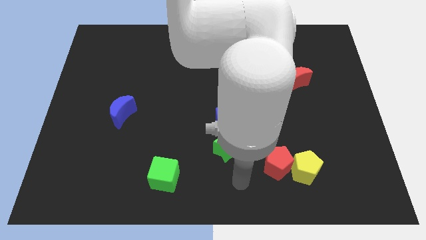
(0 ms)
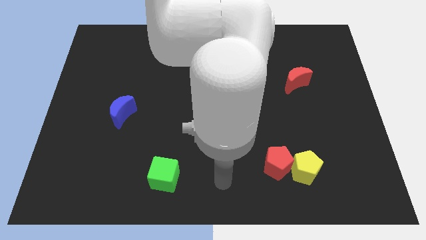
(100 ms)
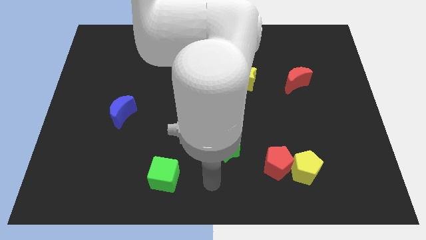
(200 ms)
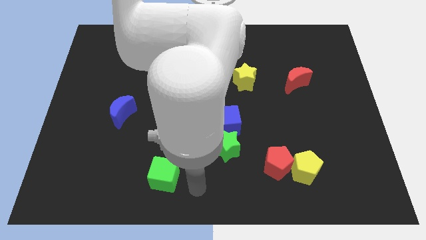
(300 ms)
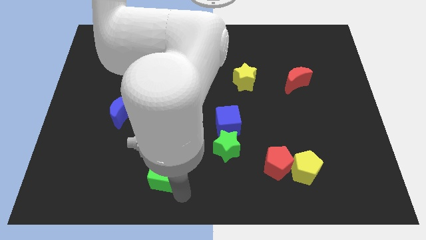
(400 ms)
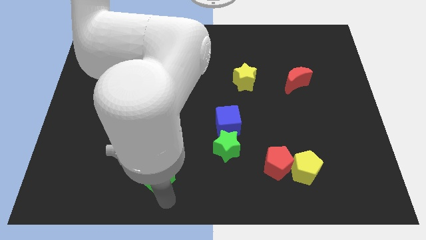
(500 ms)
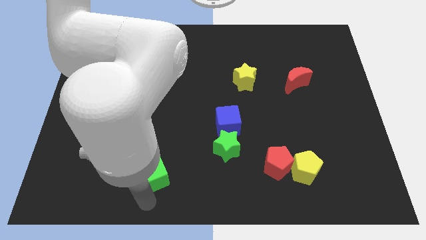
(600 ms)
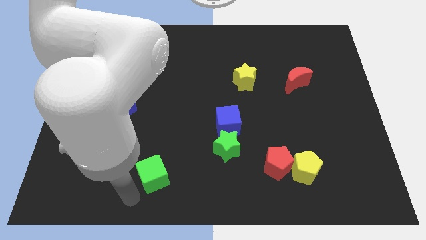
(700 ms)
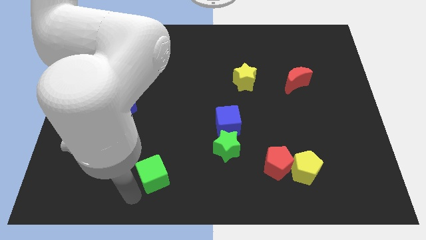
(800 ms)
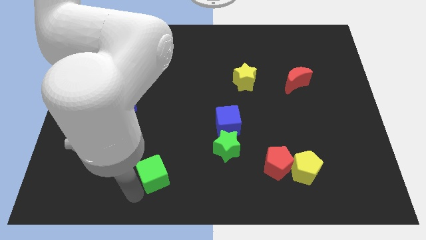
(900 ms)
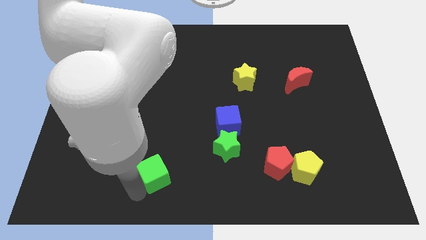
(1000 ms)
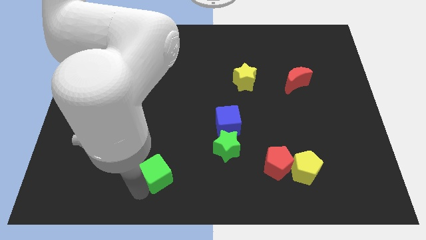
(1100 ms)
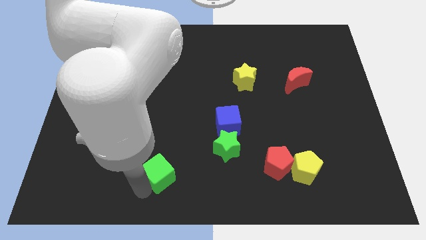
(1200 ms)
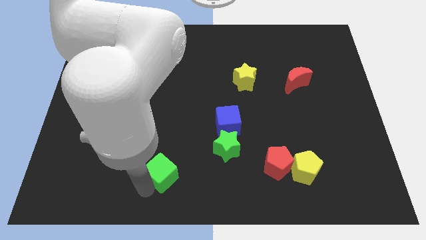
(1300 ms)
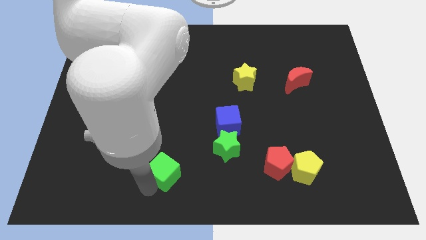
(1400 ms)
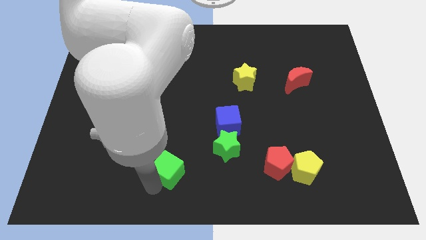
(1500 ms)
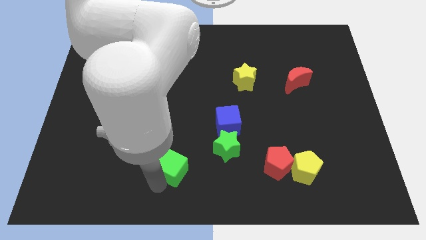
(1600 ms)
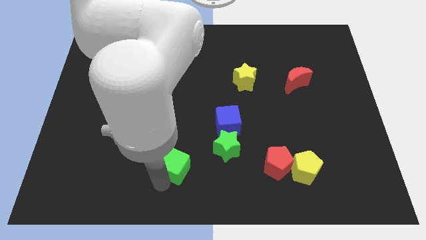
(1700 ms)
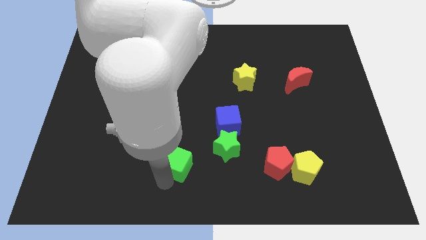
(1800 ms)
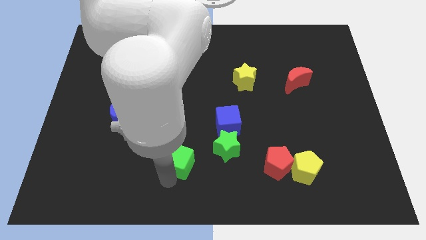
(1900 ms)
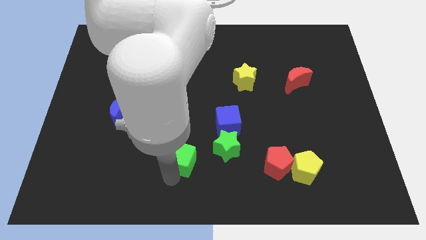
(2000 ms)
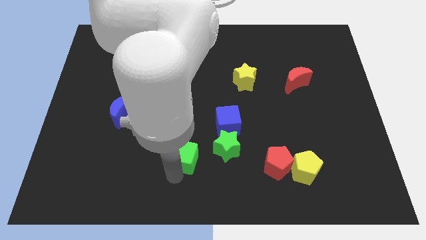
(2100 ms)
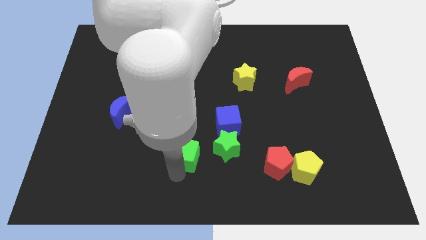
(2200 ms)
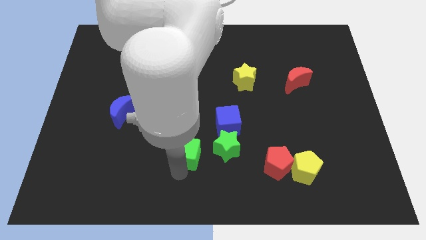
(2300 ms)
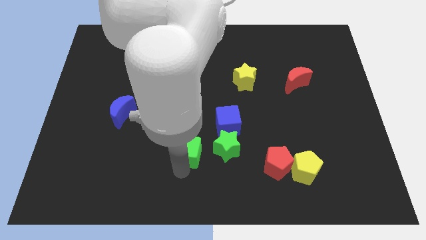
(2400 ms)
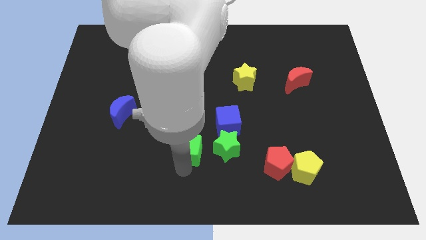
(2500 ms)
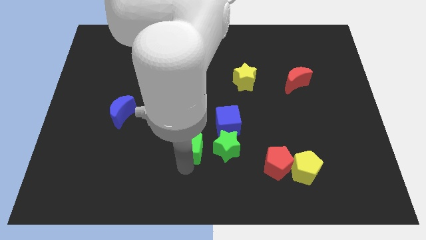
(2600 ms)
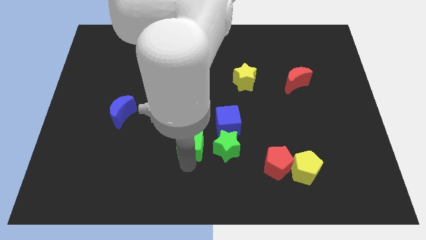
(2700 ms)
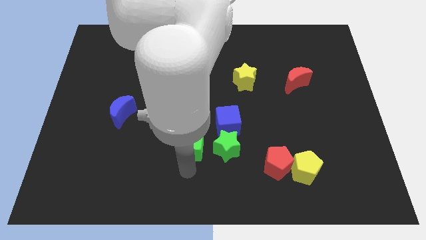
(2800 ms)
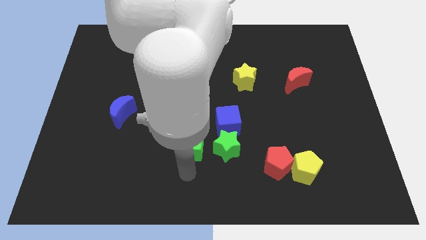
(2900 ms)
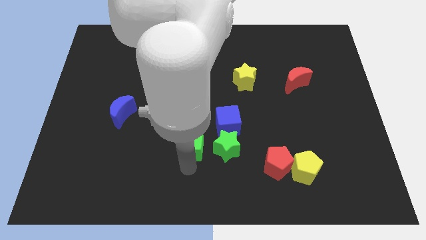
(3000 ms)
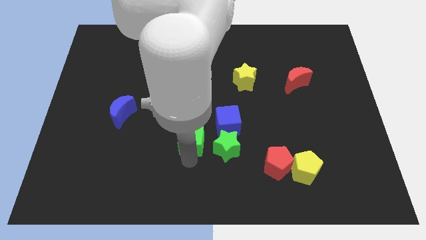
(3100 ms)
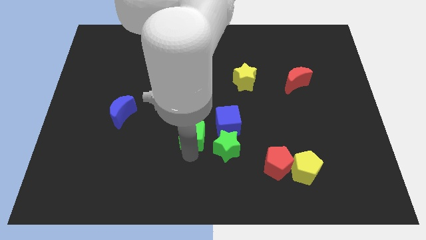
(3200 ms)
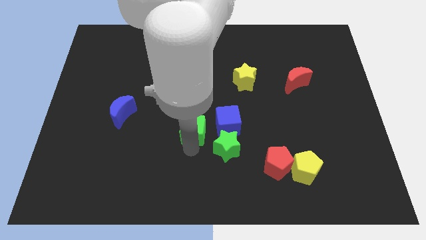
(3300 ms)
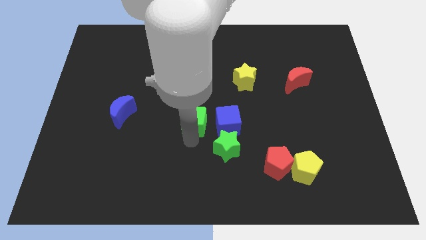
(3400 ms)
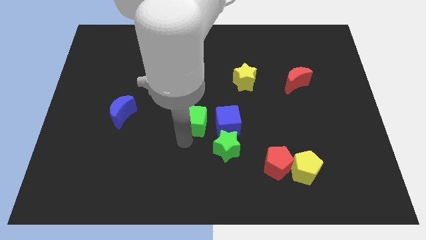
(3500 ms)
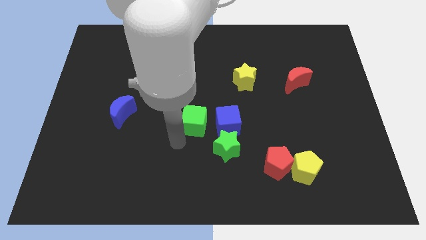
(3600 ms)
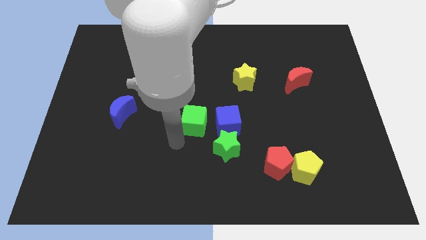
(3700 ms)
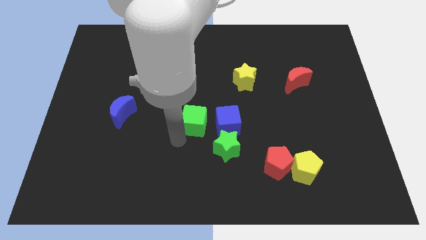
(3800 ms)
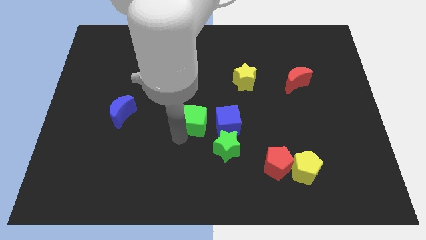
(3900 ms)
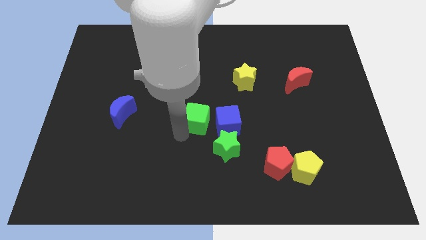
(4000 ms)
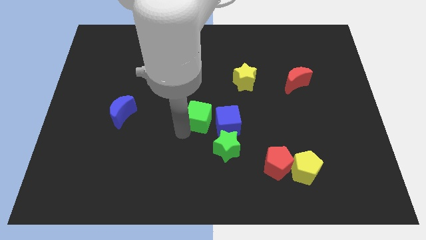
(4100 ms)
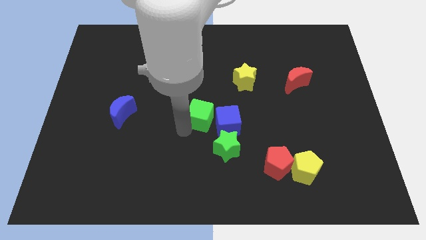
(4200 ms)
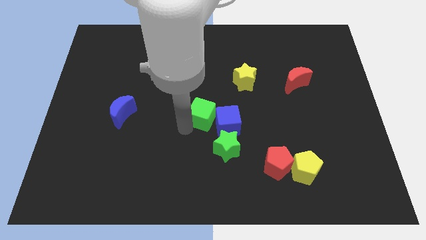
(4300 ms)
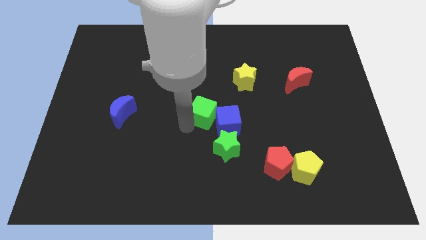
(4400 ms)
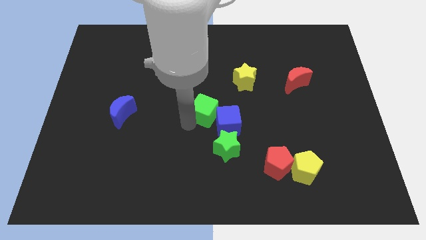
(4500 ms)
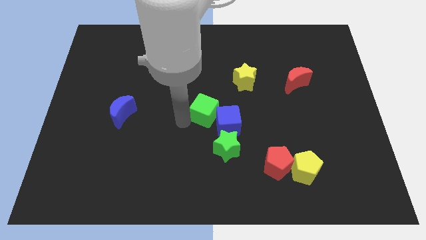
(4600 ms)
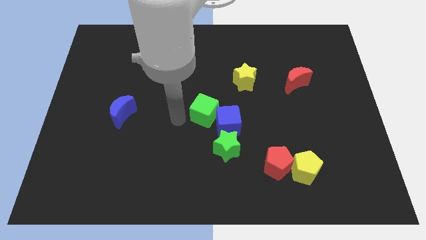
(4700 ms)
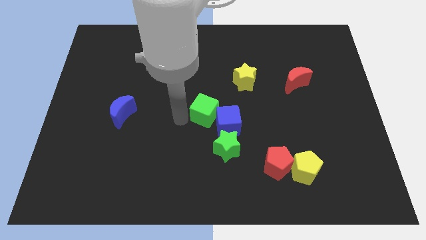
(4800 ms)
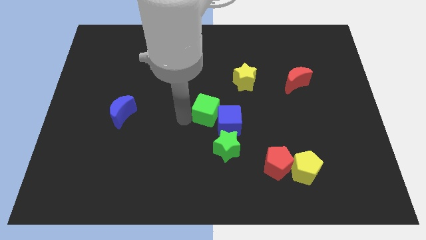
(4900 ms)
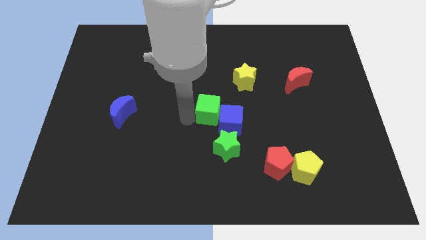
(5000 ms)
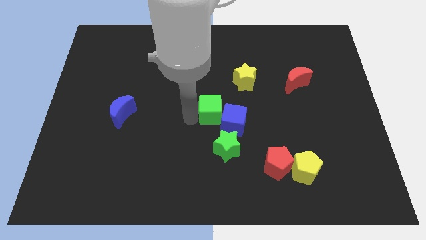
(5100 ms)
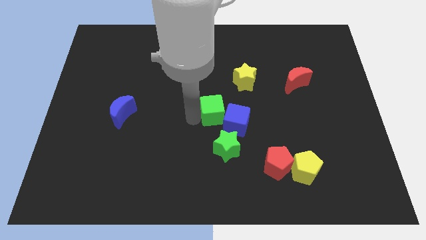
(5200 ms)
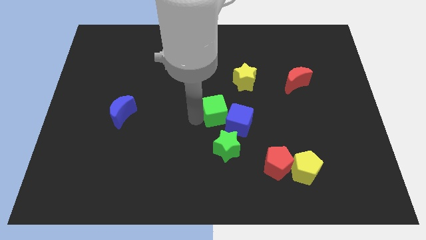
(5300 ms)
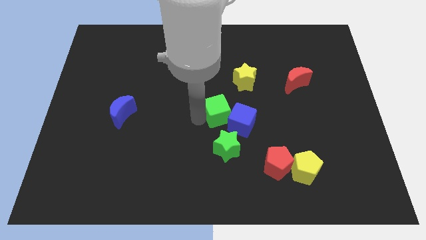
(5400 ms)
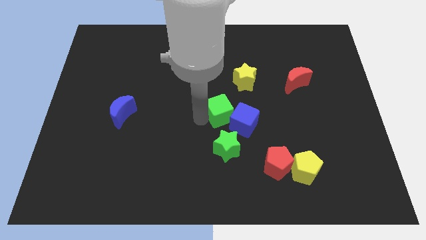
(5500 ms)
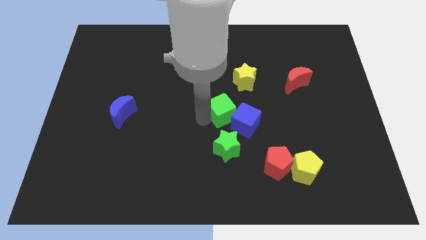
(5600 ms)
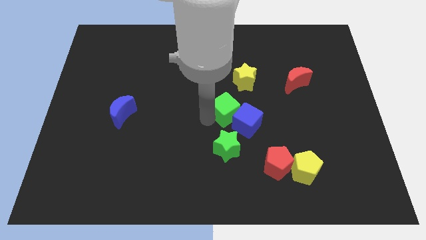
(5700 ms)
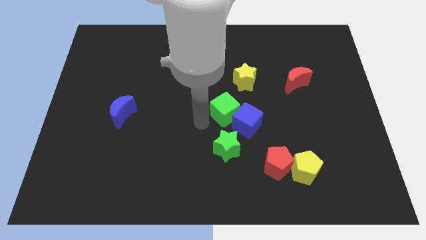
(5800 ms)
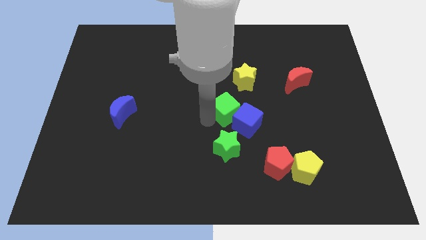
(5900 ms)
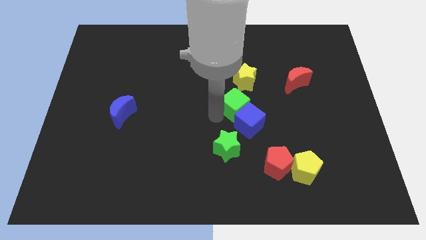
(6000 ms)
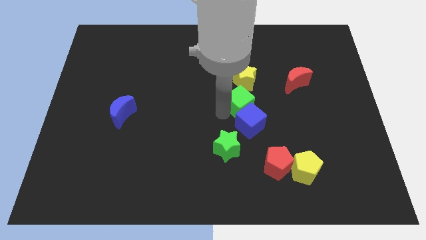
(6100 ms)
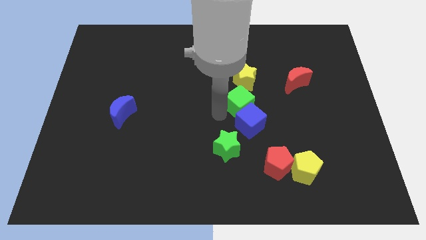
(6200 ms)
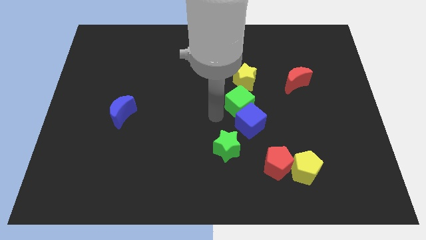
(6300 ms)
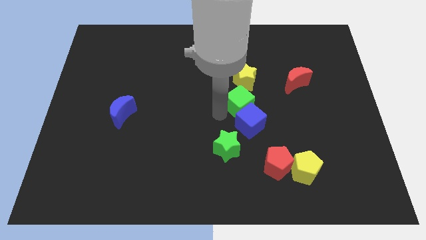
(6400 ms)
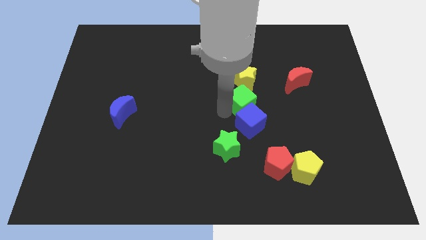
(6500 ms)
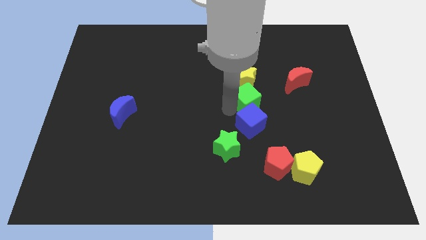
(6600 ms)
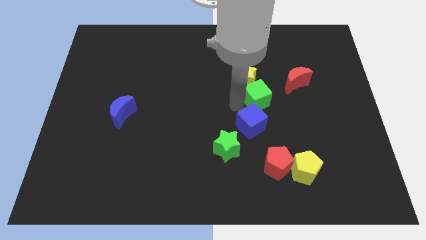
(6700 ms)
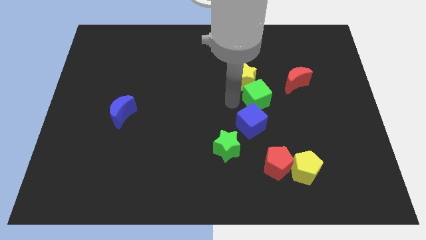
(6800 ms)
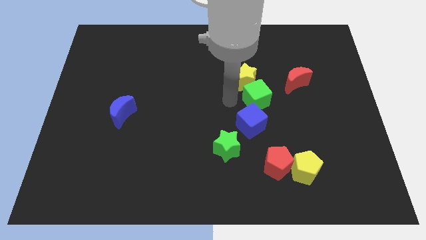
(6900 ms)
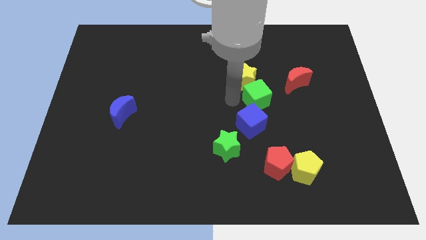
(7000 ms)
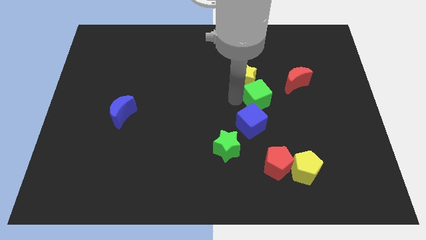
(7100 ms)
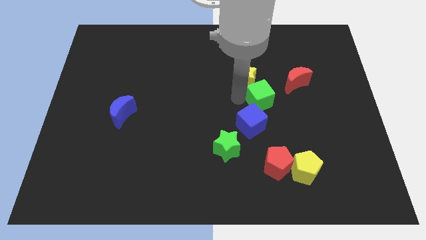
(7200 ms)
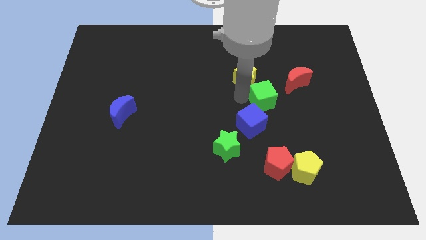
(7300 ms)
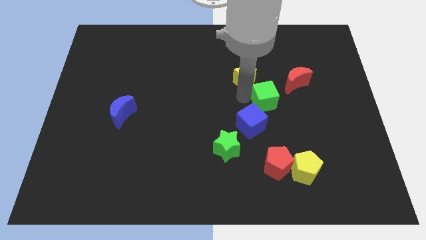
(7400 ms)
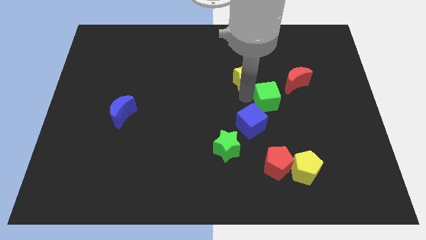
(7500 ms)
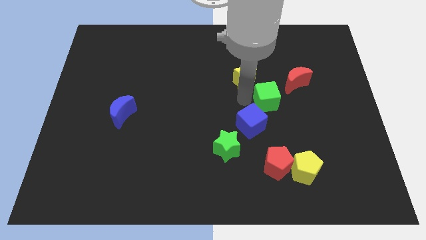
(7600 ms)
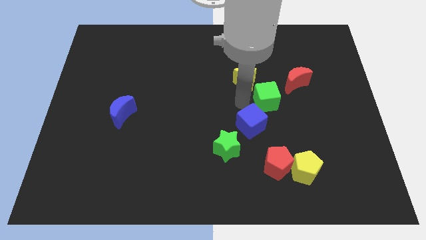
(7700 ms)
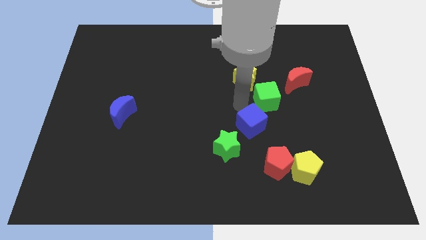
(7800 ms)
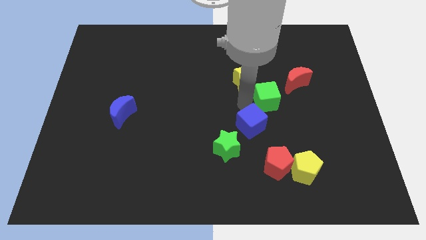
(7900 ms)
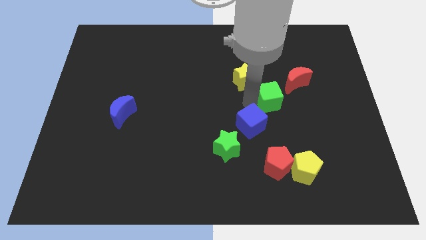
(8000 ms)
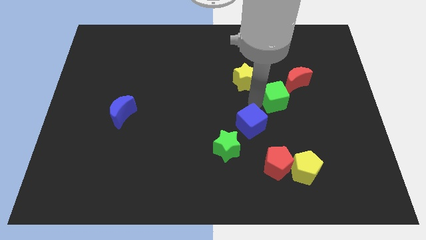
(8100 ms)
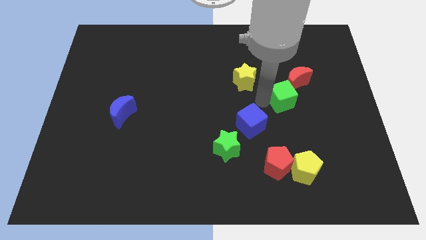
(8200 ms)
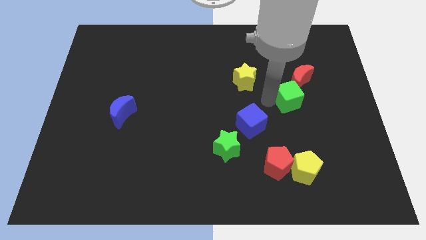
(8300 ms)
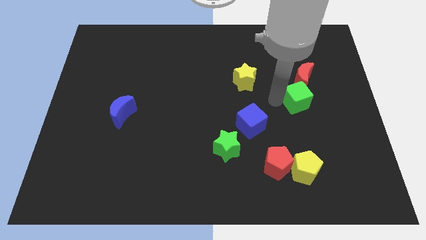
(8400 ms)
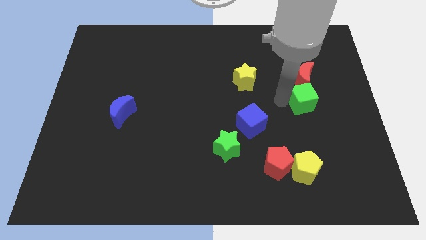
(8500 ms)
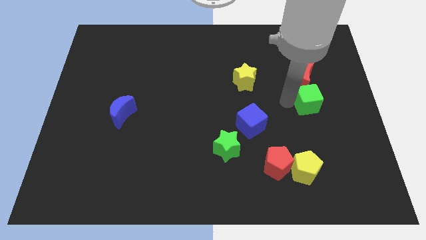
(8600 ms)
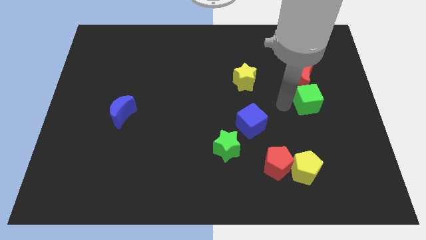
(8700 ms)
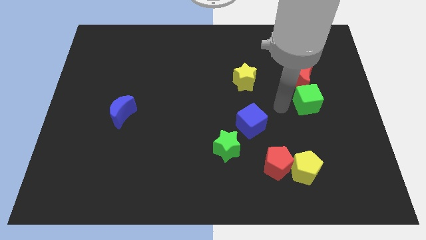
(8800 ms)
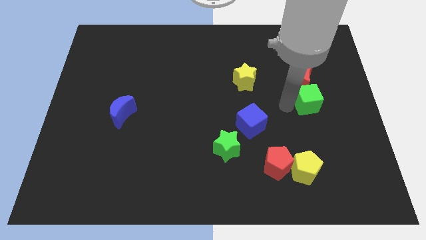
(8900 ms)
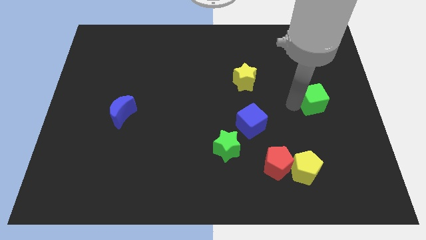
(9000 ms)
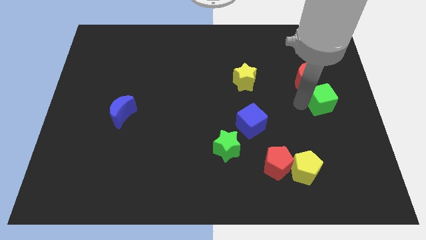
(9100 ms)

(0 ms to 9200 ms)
slide the green cube to the right side
